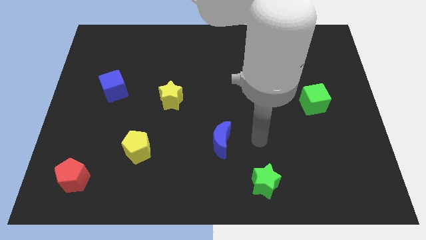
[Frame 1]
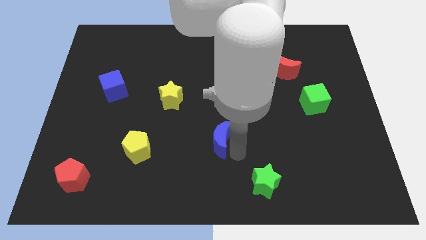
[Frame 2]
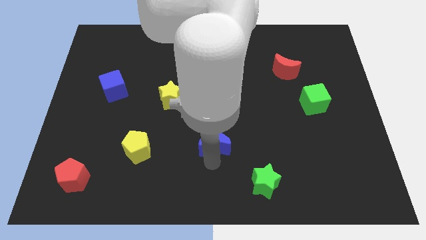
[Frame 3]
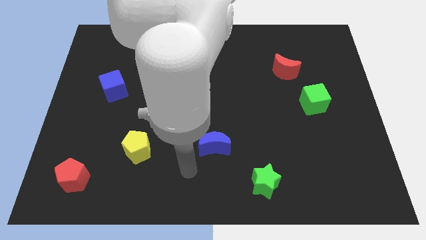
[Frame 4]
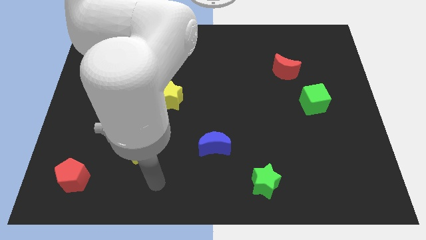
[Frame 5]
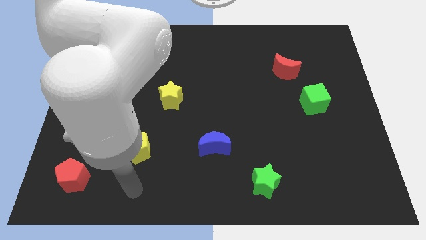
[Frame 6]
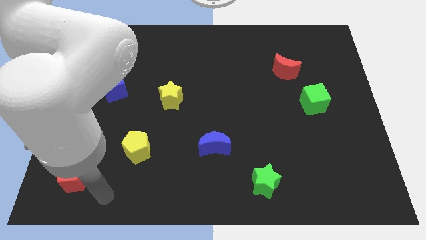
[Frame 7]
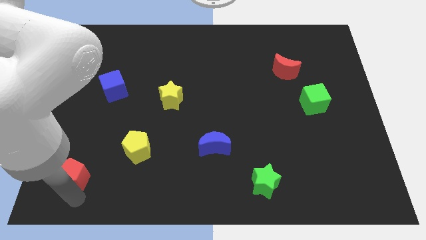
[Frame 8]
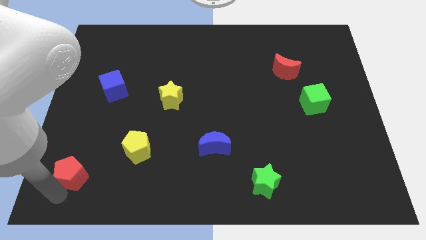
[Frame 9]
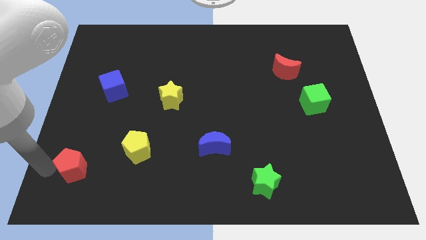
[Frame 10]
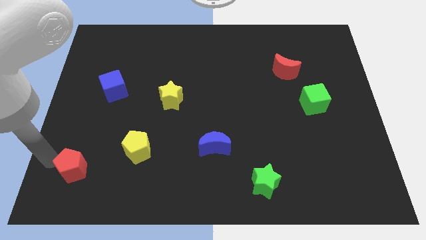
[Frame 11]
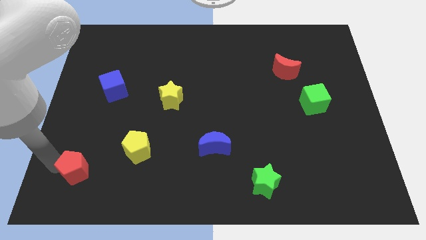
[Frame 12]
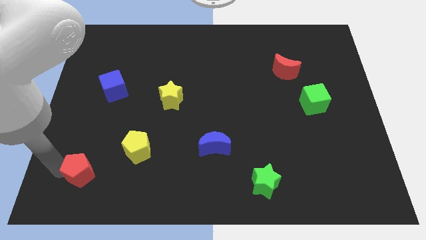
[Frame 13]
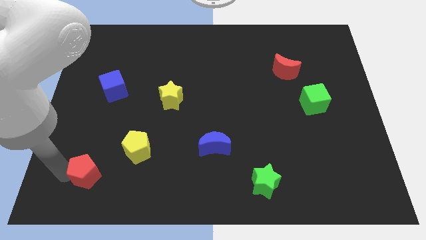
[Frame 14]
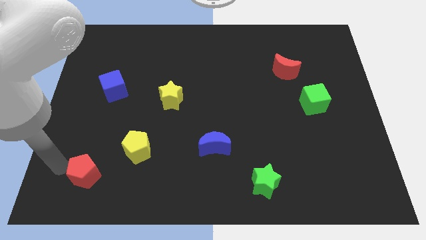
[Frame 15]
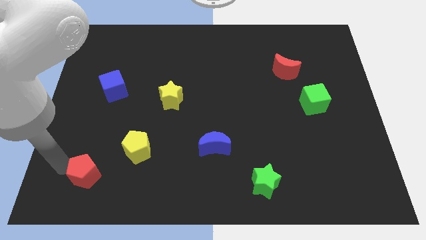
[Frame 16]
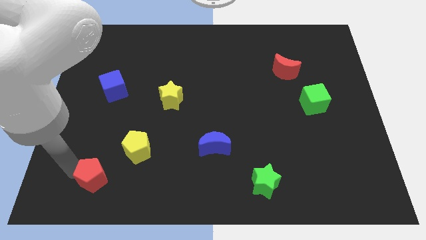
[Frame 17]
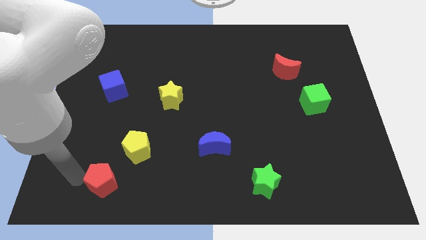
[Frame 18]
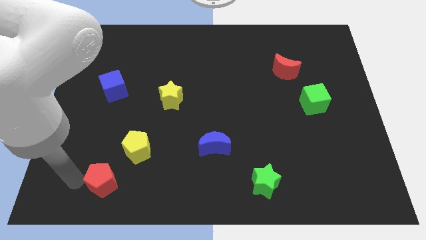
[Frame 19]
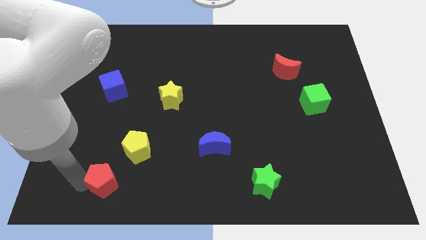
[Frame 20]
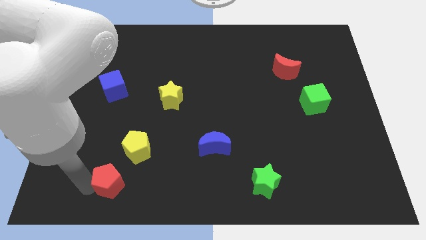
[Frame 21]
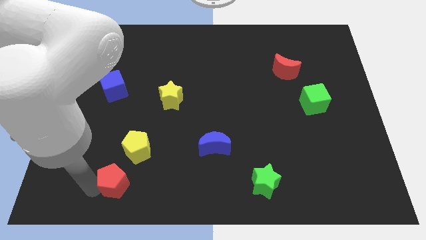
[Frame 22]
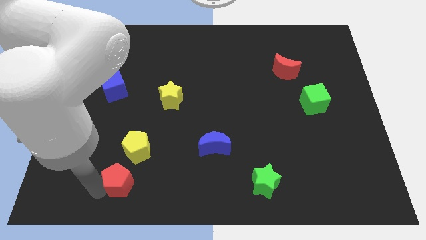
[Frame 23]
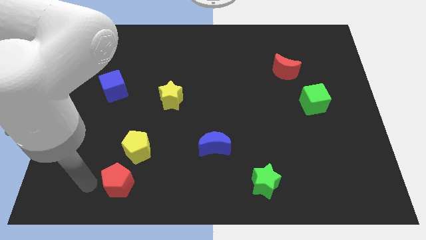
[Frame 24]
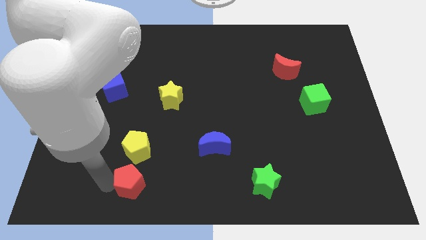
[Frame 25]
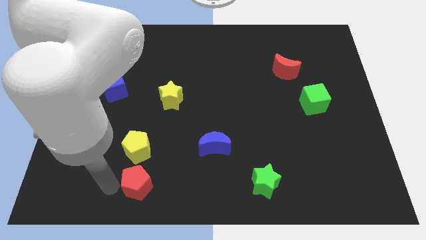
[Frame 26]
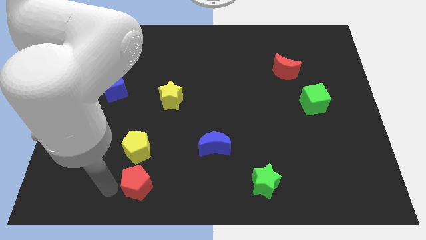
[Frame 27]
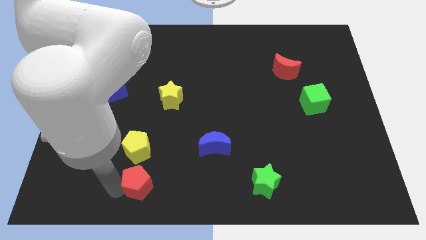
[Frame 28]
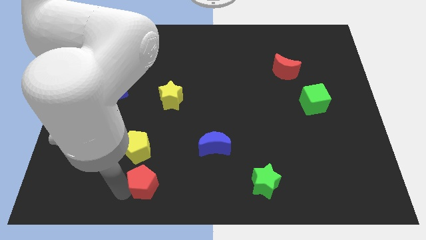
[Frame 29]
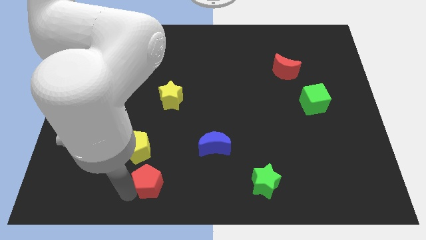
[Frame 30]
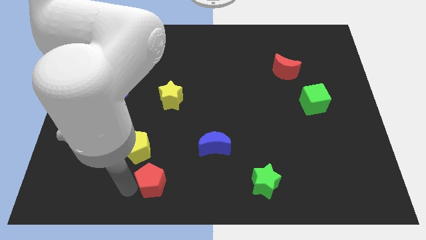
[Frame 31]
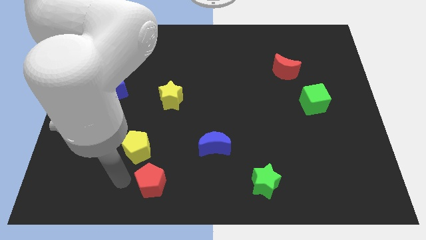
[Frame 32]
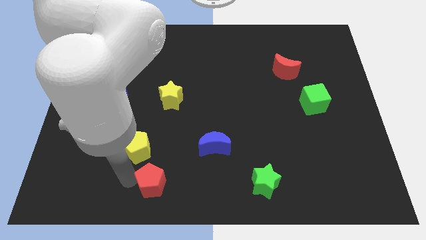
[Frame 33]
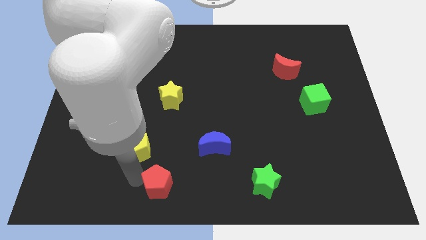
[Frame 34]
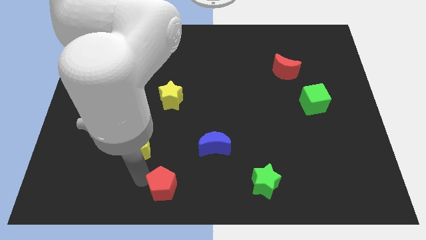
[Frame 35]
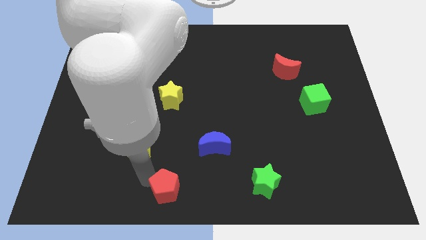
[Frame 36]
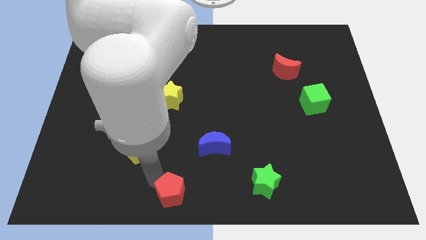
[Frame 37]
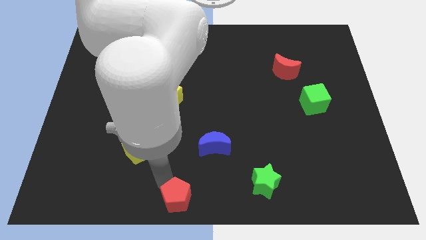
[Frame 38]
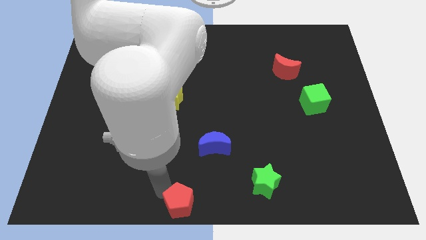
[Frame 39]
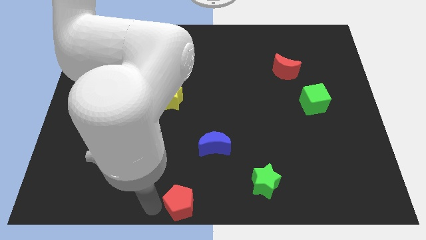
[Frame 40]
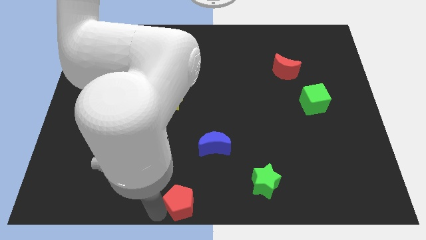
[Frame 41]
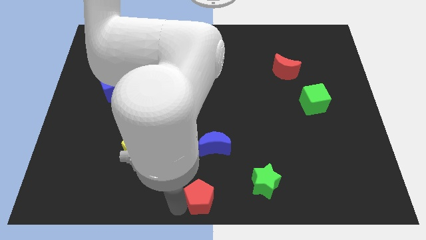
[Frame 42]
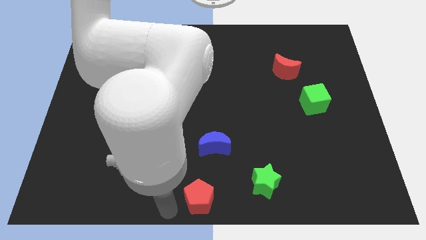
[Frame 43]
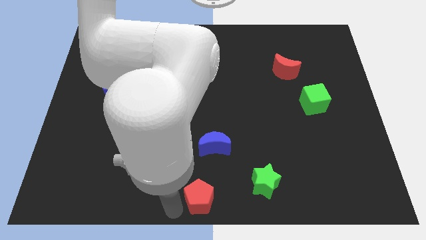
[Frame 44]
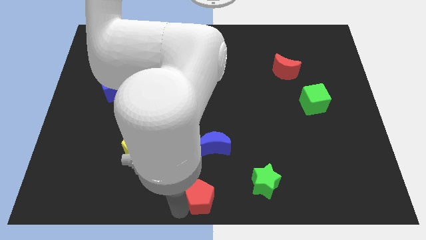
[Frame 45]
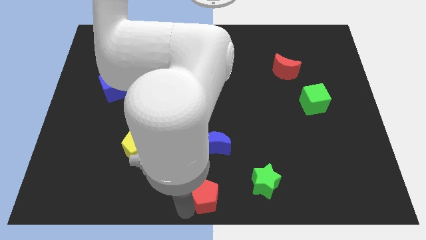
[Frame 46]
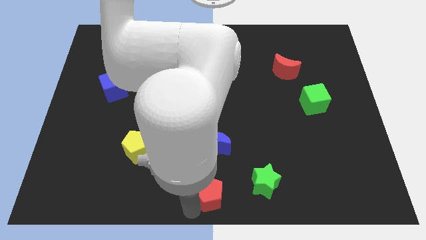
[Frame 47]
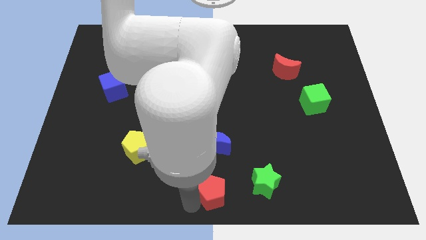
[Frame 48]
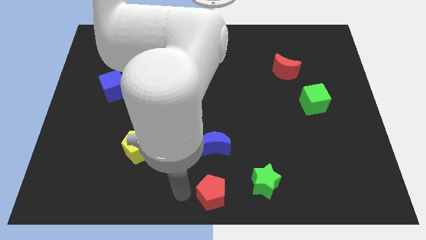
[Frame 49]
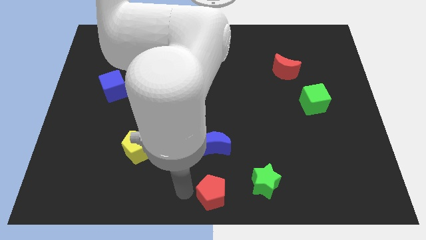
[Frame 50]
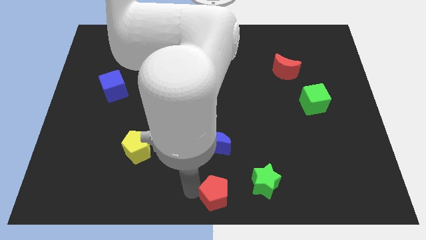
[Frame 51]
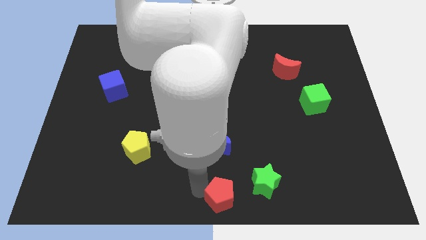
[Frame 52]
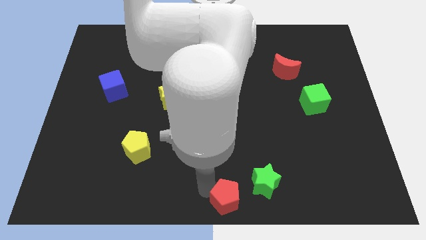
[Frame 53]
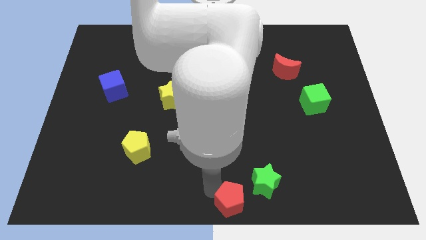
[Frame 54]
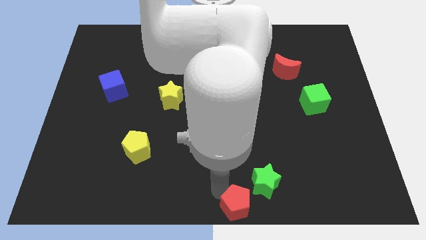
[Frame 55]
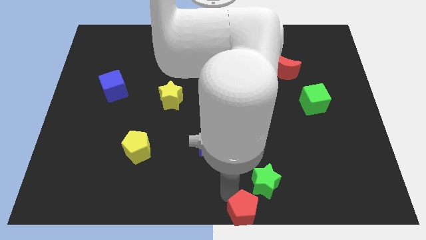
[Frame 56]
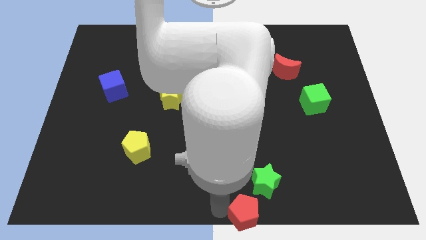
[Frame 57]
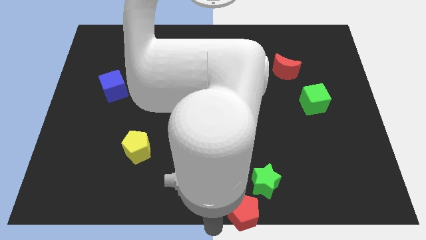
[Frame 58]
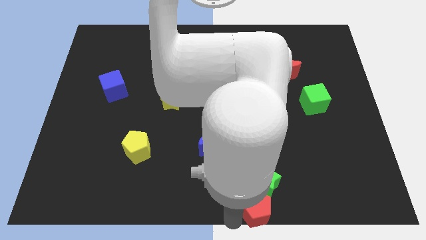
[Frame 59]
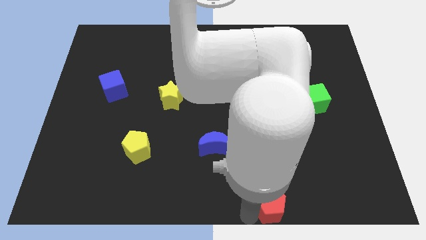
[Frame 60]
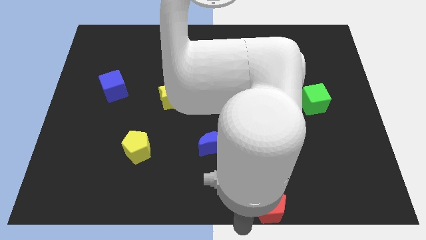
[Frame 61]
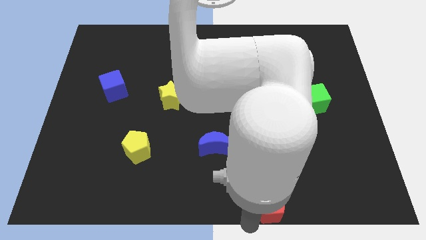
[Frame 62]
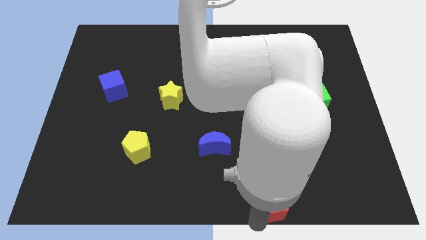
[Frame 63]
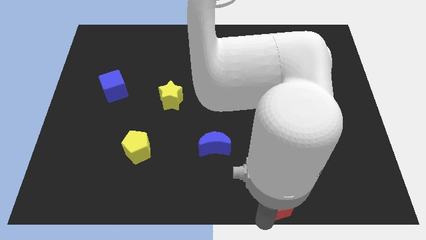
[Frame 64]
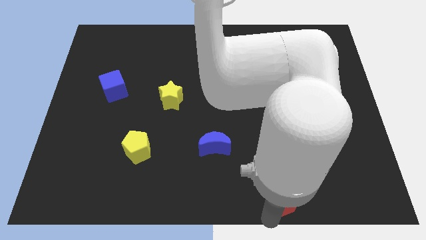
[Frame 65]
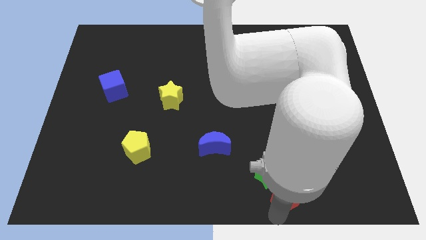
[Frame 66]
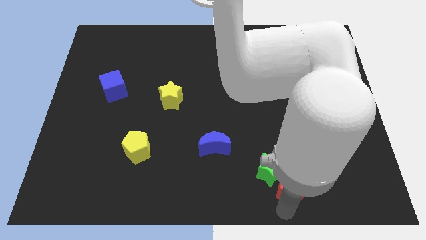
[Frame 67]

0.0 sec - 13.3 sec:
move the red pentagon just right of the green star
